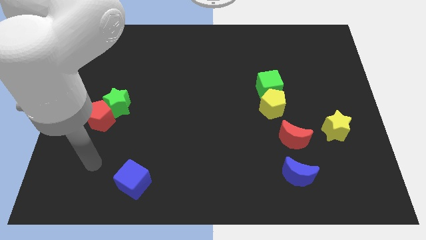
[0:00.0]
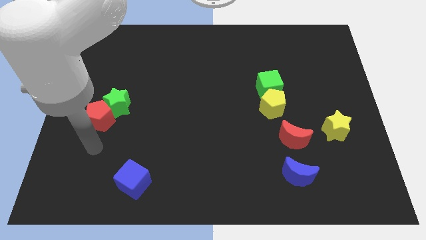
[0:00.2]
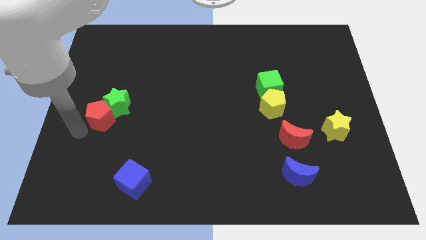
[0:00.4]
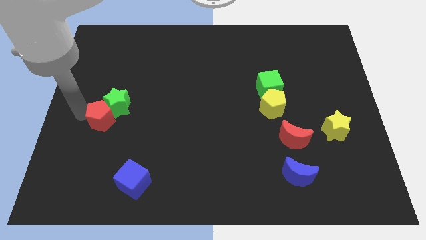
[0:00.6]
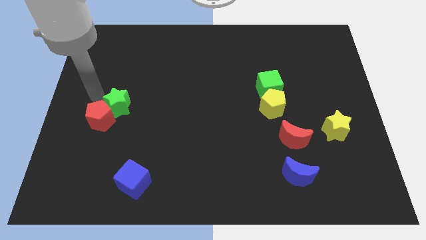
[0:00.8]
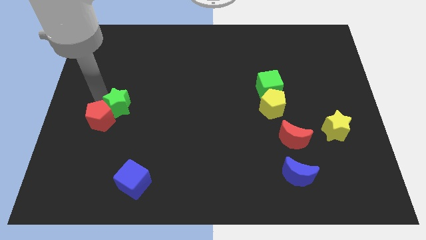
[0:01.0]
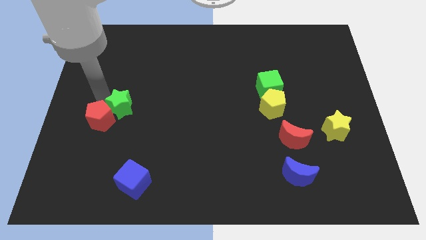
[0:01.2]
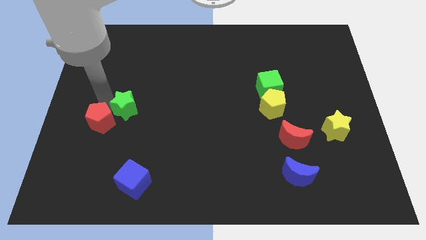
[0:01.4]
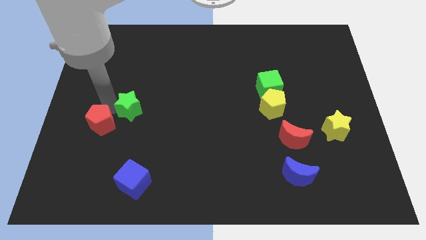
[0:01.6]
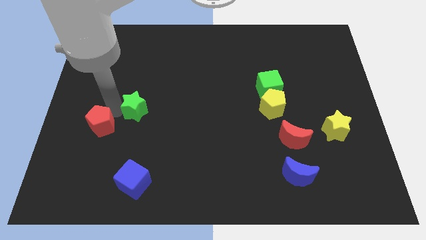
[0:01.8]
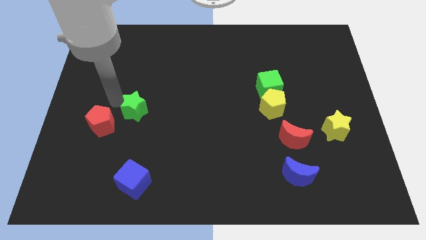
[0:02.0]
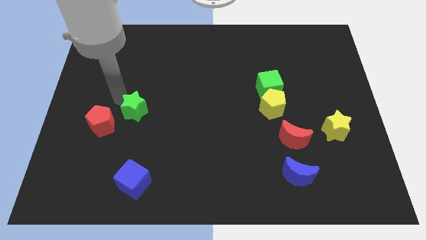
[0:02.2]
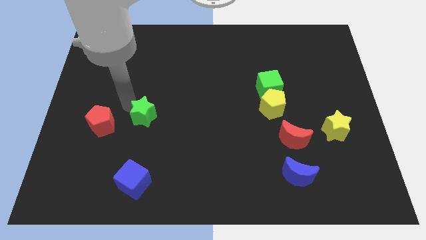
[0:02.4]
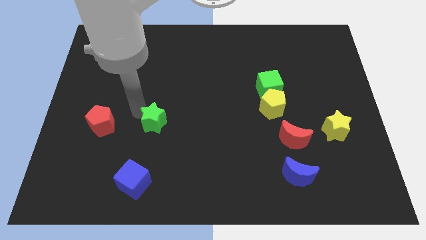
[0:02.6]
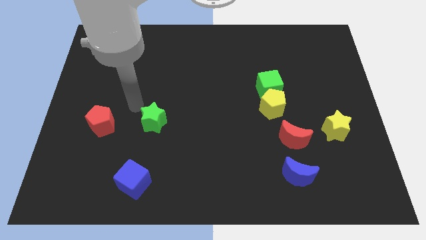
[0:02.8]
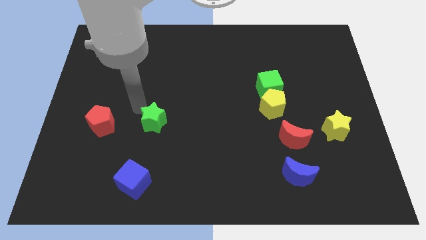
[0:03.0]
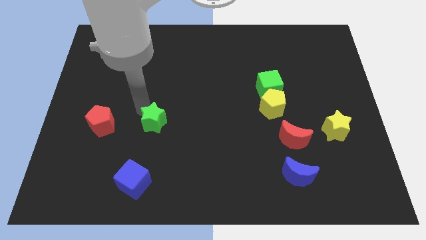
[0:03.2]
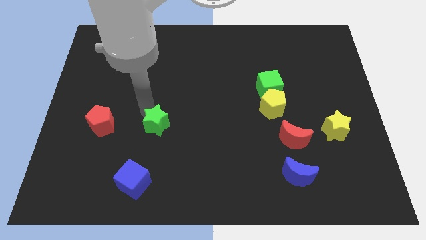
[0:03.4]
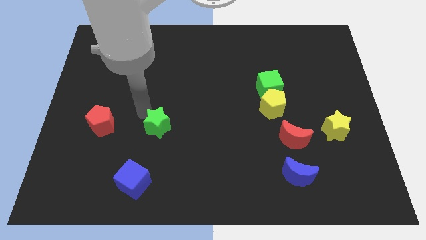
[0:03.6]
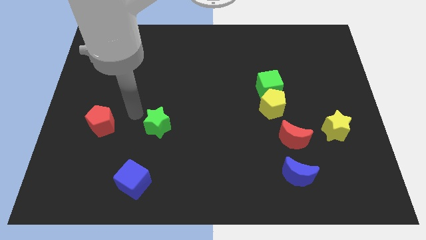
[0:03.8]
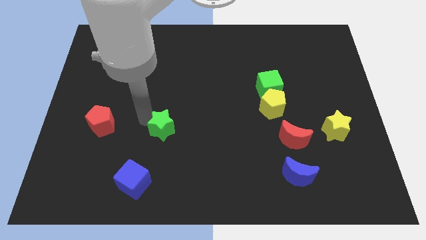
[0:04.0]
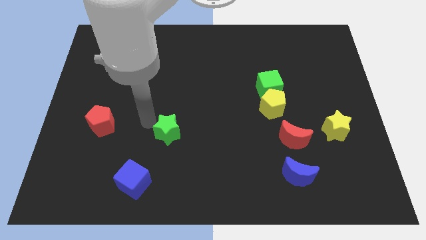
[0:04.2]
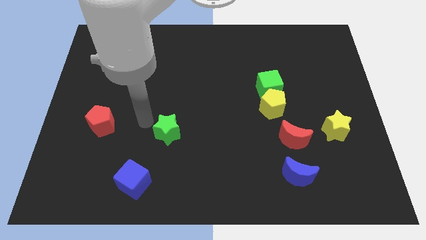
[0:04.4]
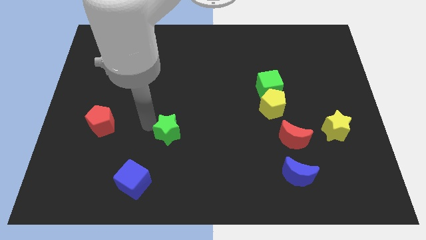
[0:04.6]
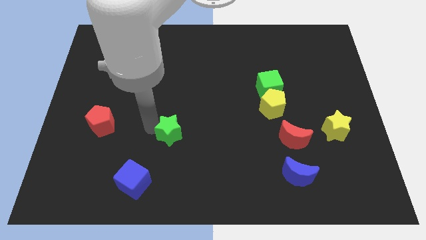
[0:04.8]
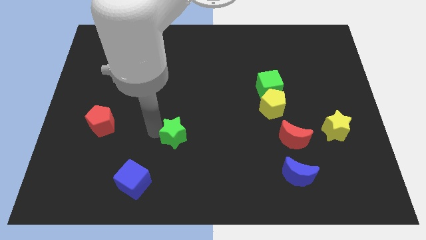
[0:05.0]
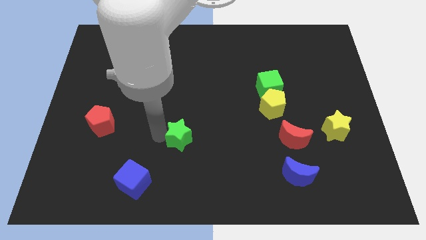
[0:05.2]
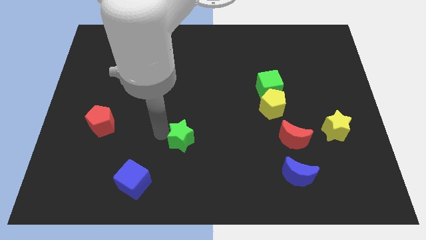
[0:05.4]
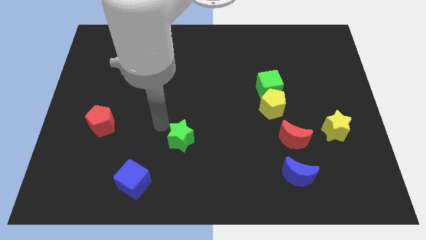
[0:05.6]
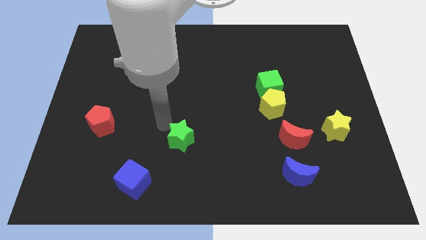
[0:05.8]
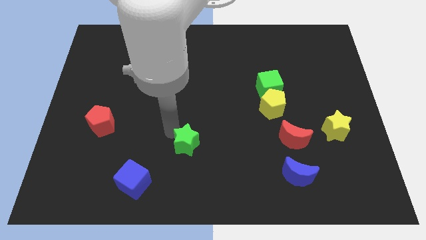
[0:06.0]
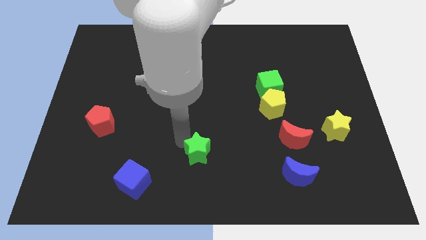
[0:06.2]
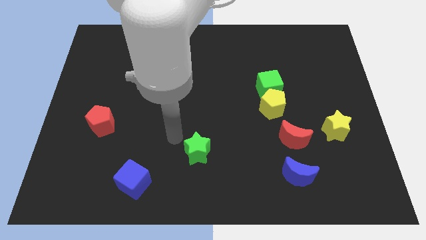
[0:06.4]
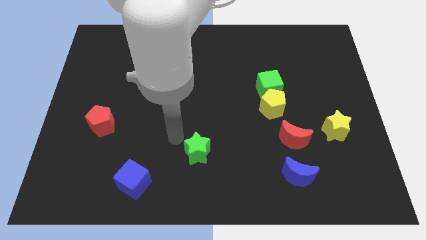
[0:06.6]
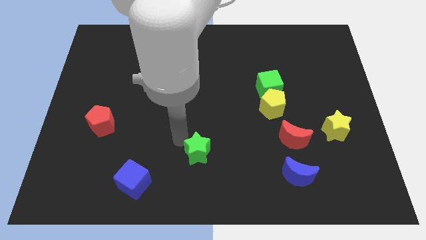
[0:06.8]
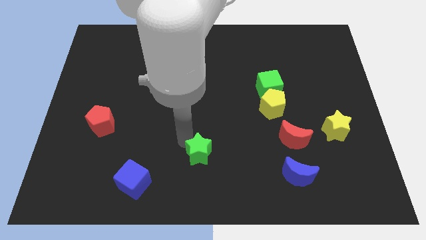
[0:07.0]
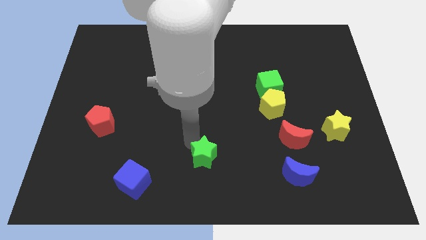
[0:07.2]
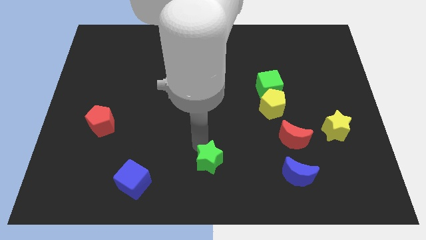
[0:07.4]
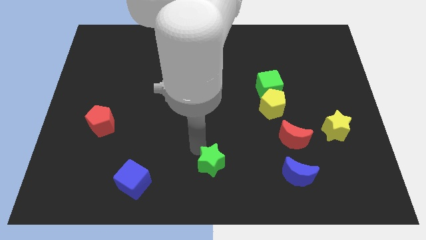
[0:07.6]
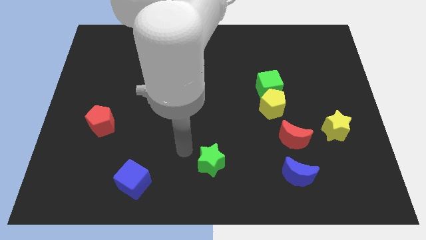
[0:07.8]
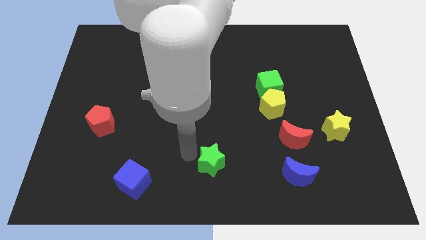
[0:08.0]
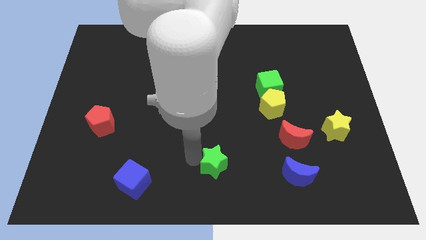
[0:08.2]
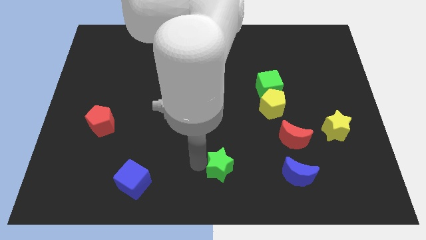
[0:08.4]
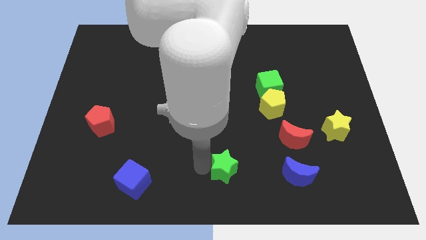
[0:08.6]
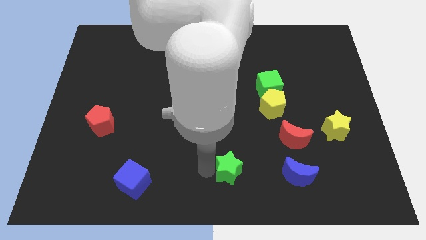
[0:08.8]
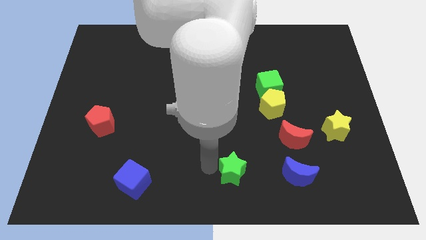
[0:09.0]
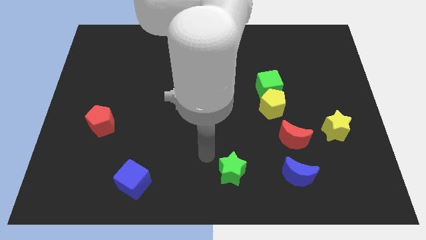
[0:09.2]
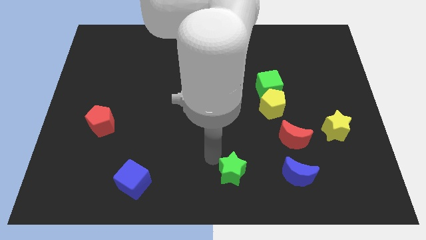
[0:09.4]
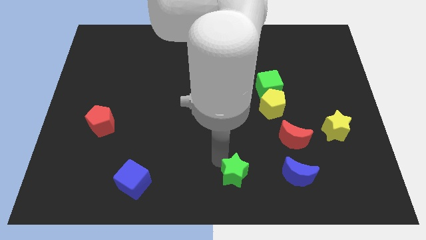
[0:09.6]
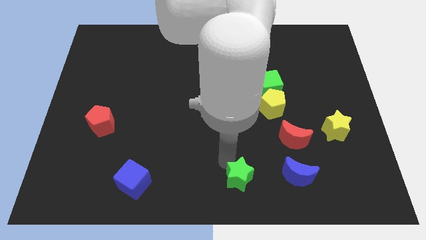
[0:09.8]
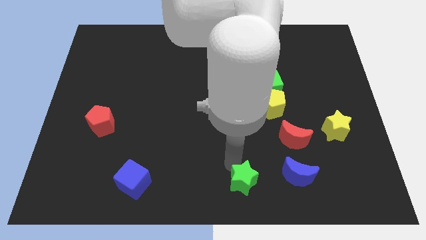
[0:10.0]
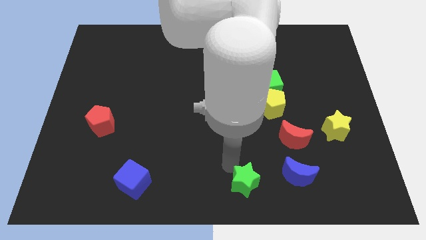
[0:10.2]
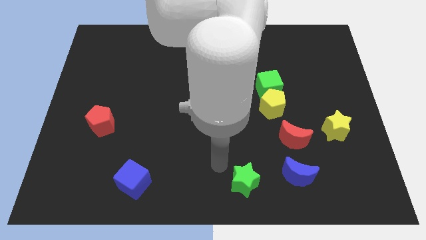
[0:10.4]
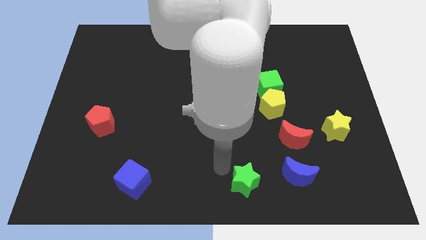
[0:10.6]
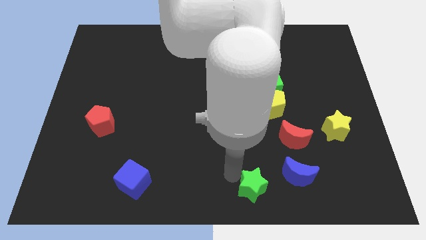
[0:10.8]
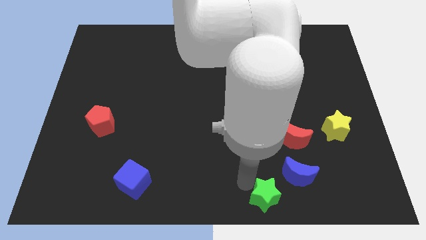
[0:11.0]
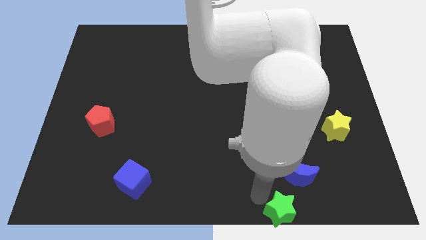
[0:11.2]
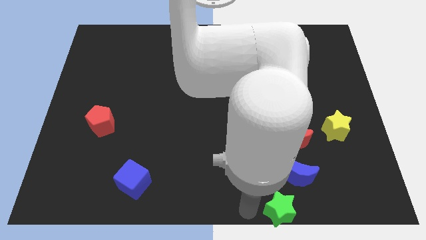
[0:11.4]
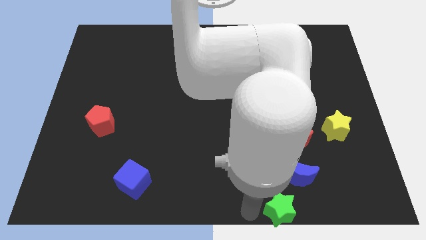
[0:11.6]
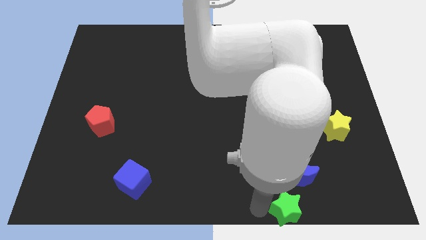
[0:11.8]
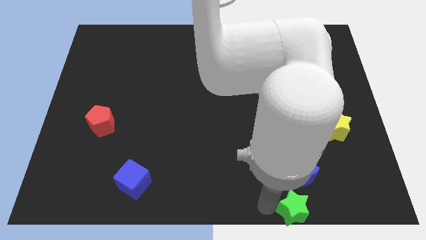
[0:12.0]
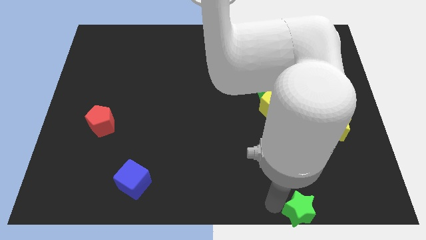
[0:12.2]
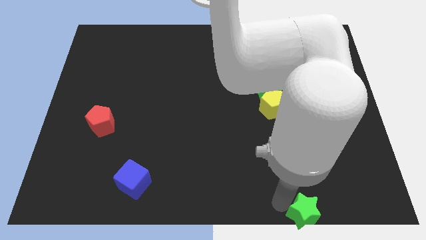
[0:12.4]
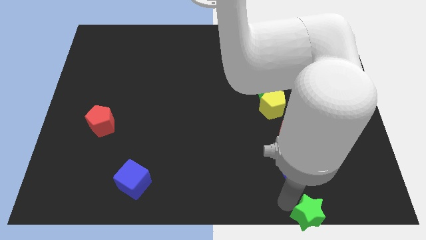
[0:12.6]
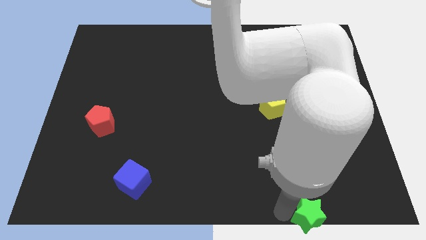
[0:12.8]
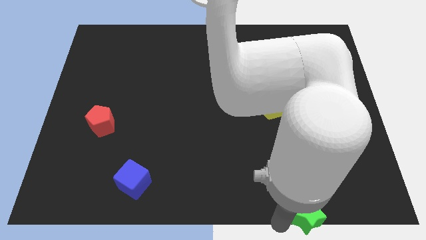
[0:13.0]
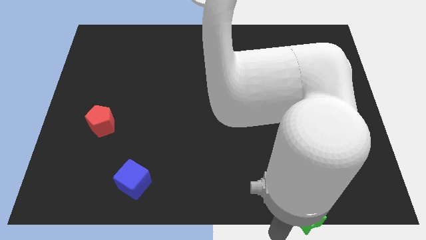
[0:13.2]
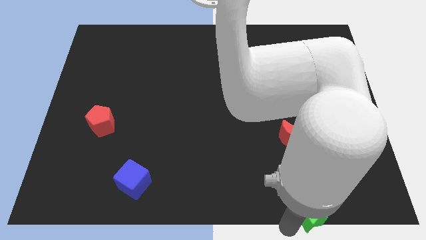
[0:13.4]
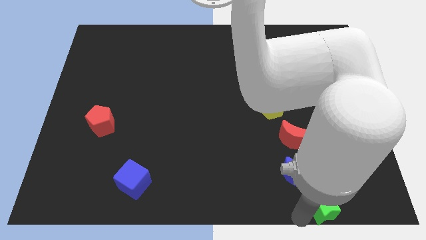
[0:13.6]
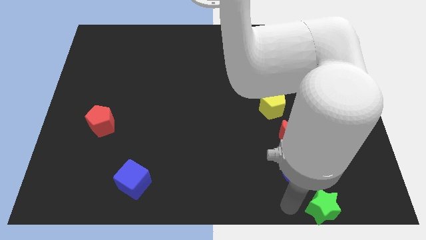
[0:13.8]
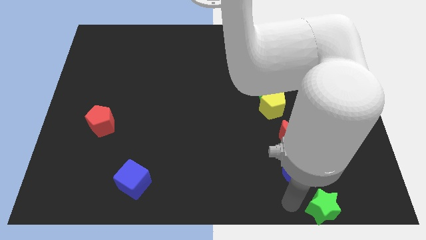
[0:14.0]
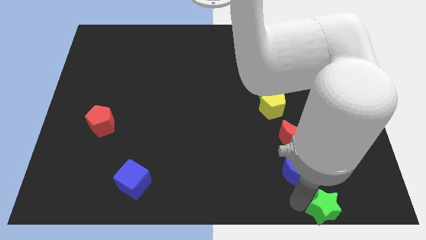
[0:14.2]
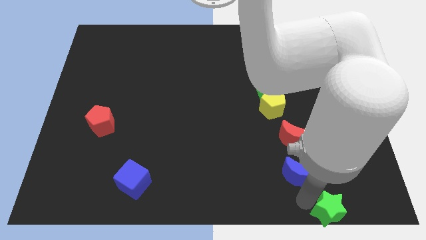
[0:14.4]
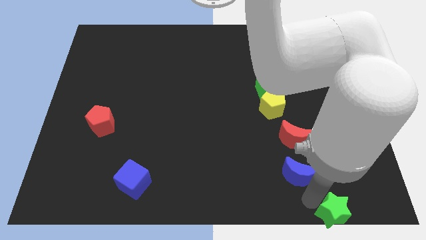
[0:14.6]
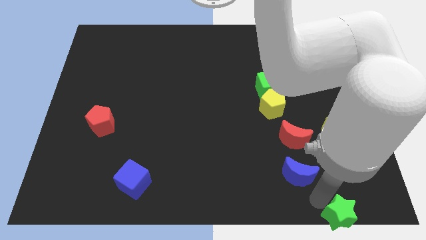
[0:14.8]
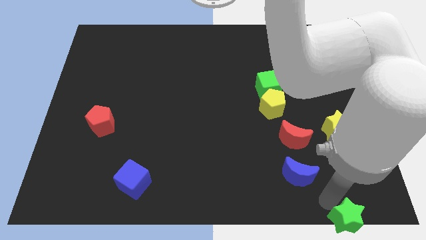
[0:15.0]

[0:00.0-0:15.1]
slide the green star to the bottom right corner
